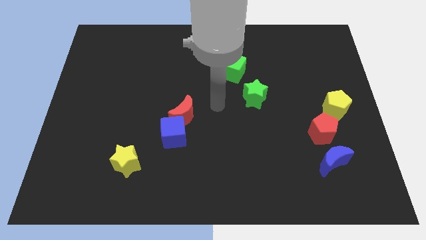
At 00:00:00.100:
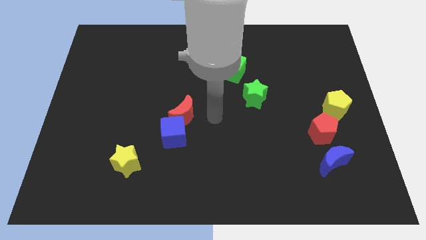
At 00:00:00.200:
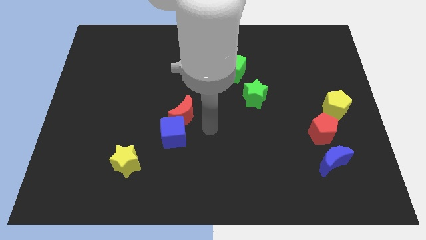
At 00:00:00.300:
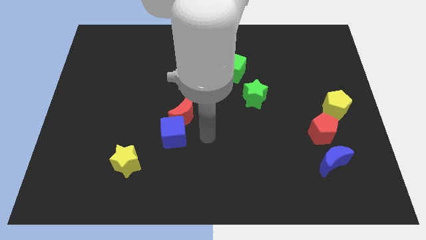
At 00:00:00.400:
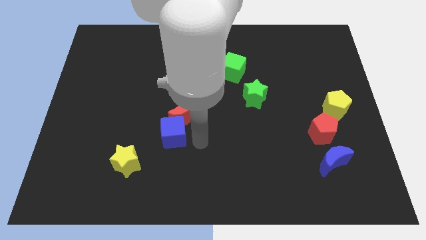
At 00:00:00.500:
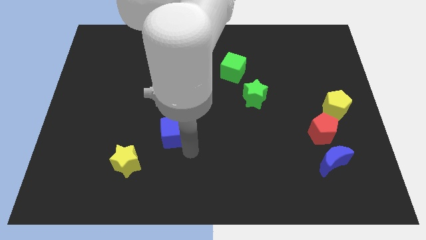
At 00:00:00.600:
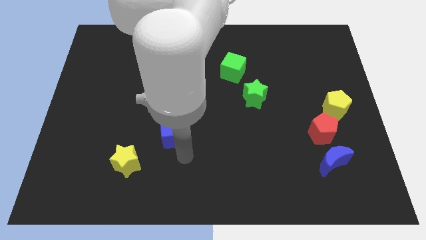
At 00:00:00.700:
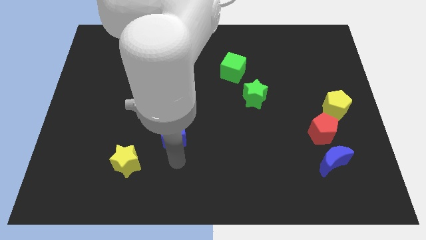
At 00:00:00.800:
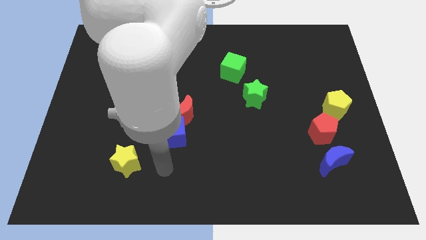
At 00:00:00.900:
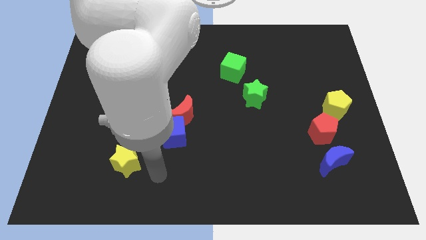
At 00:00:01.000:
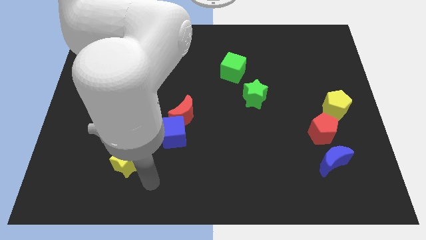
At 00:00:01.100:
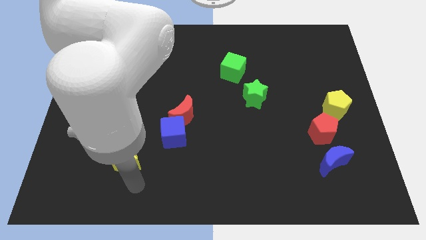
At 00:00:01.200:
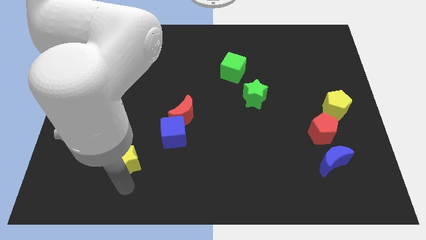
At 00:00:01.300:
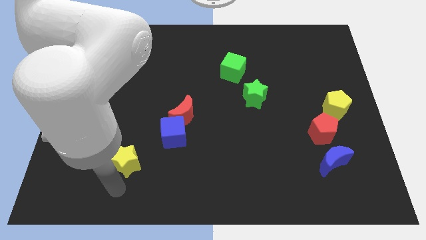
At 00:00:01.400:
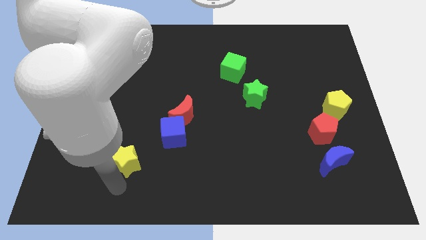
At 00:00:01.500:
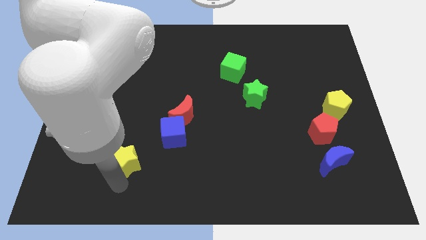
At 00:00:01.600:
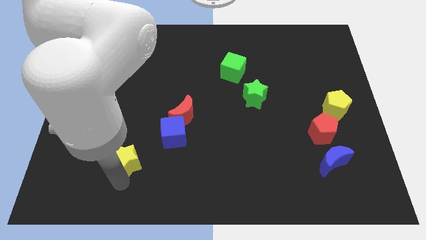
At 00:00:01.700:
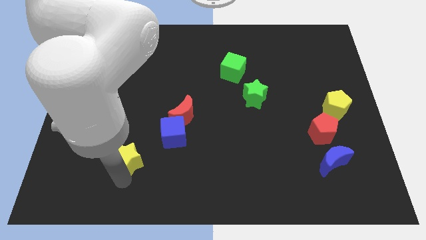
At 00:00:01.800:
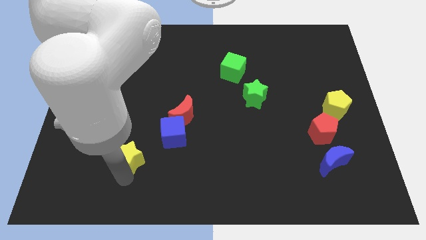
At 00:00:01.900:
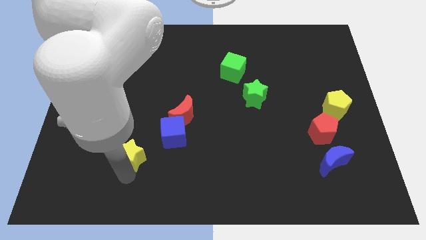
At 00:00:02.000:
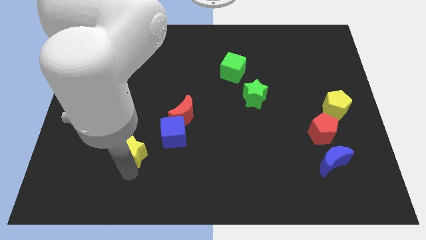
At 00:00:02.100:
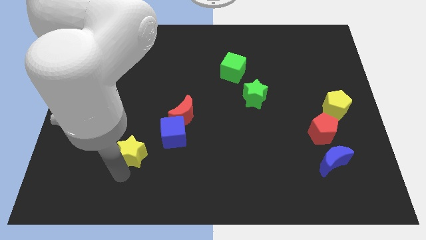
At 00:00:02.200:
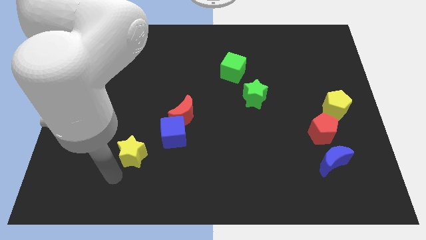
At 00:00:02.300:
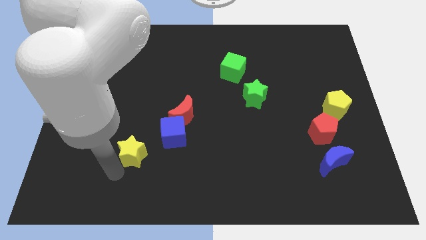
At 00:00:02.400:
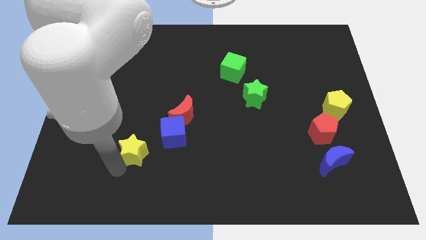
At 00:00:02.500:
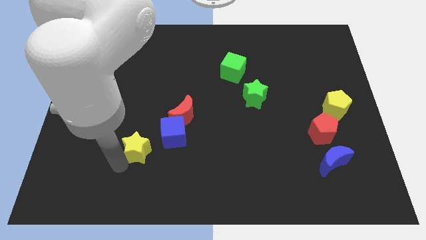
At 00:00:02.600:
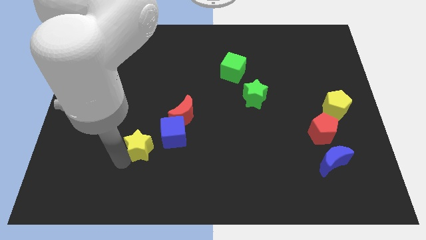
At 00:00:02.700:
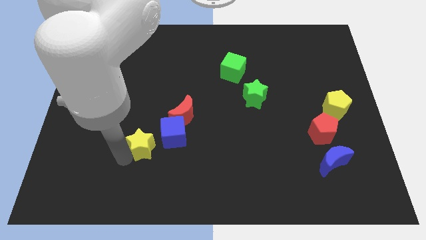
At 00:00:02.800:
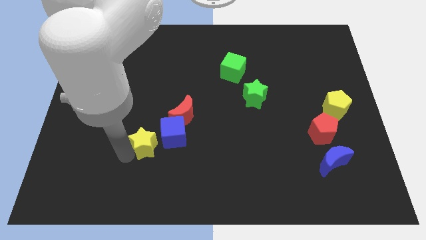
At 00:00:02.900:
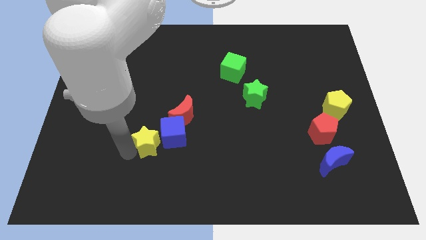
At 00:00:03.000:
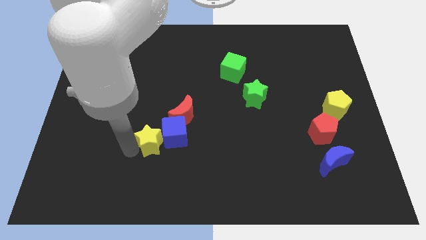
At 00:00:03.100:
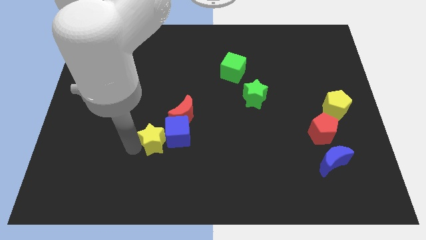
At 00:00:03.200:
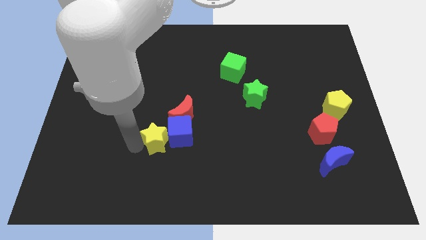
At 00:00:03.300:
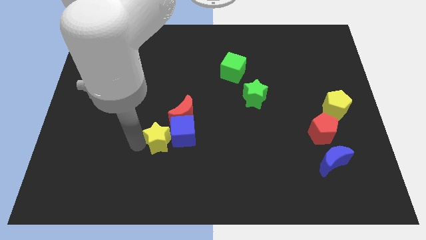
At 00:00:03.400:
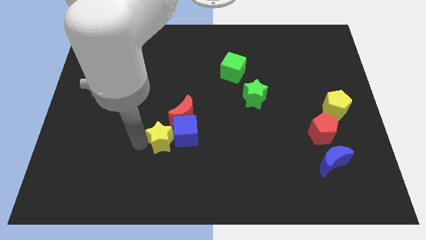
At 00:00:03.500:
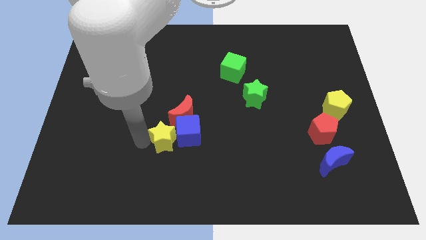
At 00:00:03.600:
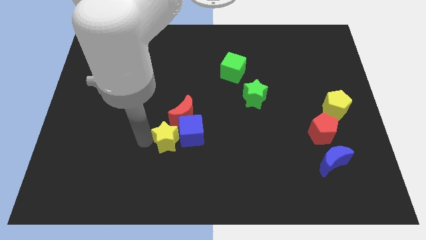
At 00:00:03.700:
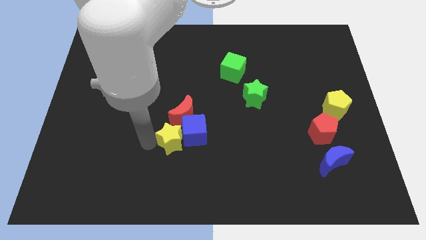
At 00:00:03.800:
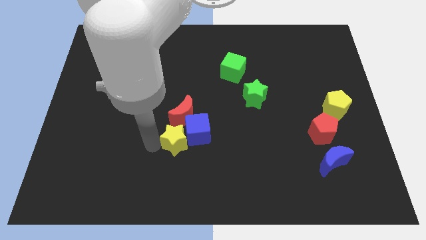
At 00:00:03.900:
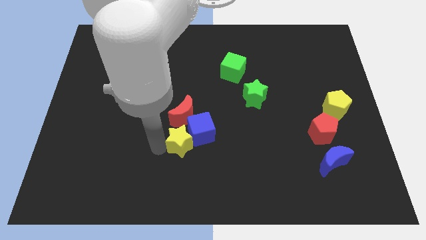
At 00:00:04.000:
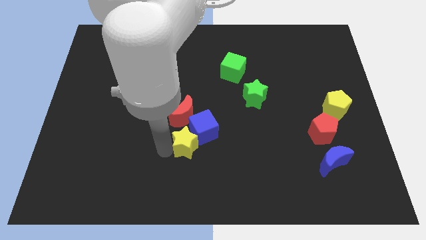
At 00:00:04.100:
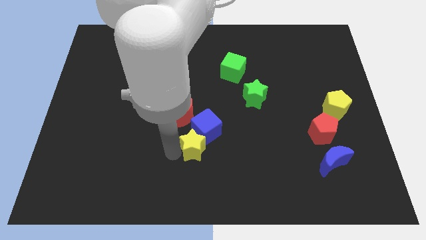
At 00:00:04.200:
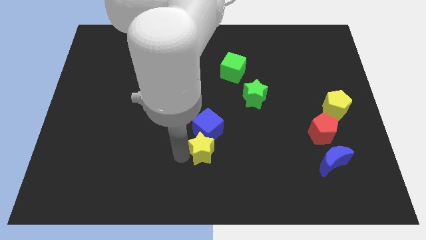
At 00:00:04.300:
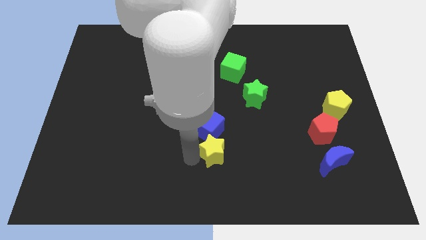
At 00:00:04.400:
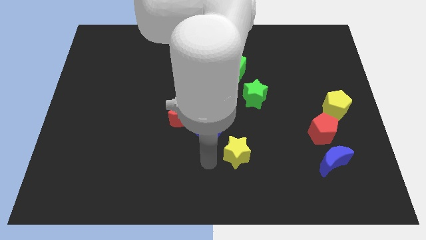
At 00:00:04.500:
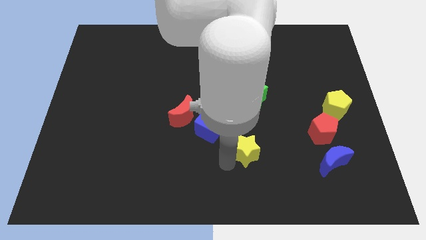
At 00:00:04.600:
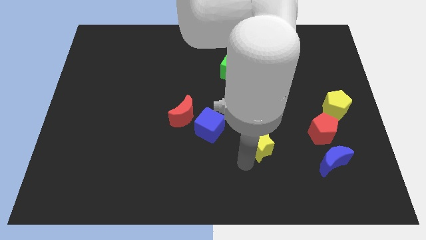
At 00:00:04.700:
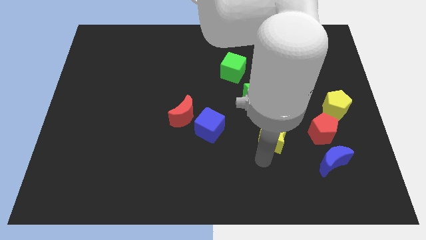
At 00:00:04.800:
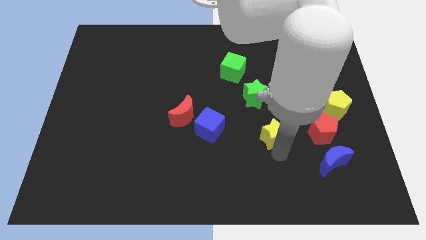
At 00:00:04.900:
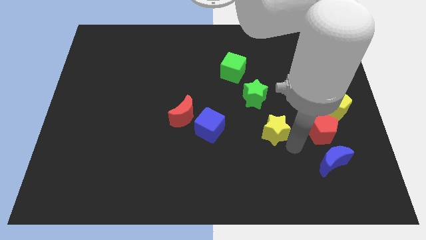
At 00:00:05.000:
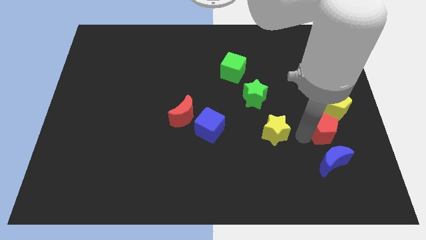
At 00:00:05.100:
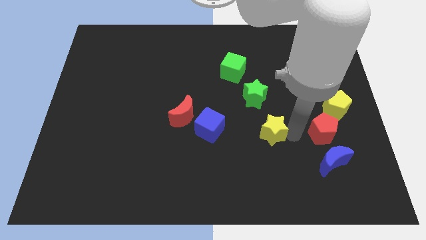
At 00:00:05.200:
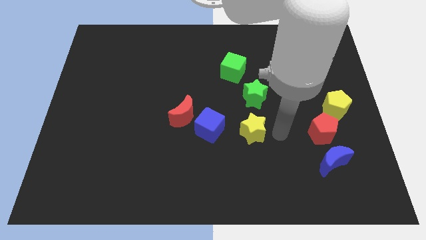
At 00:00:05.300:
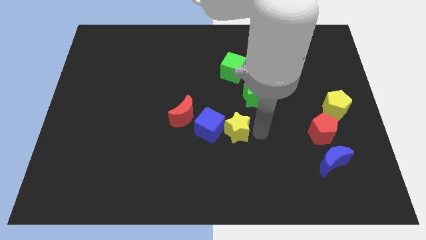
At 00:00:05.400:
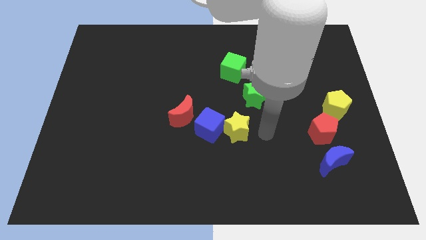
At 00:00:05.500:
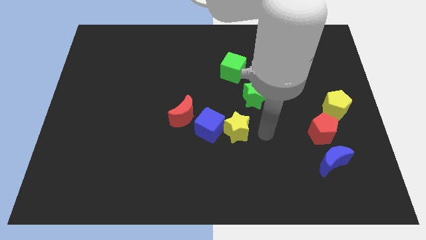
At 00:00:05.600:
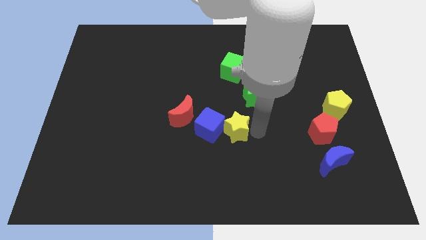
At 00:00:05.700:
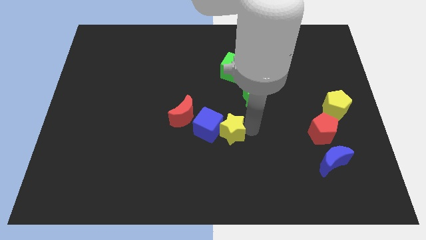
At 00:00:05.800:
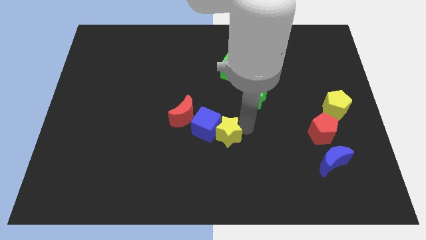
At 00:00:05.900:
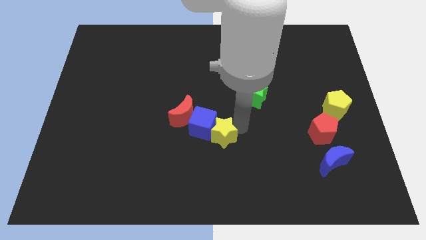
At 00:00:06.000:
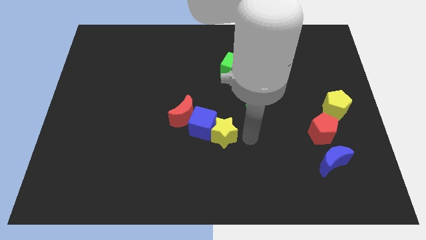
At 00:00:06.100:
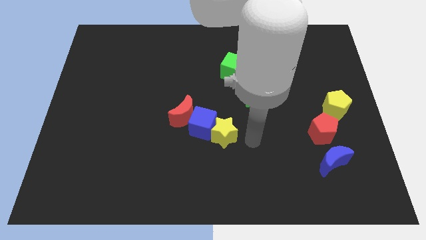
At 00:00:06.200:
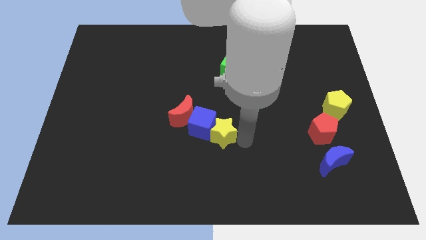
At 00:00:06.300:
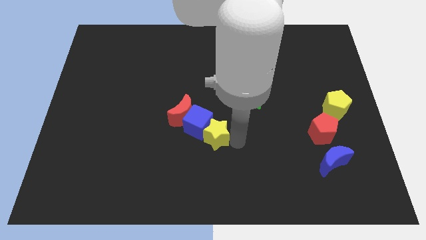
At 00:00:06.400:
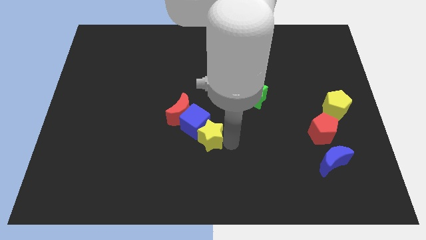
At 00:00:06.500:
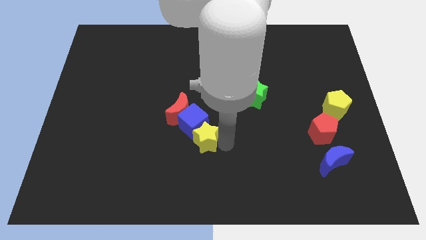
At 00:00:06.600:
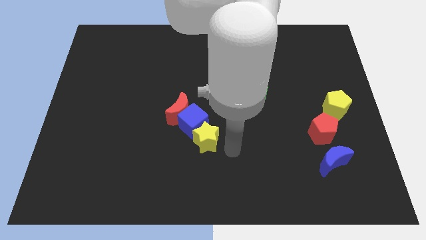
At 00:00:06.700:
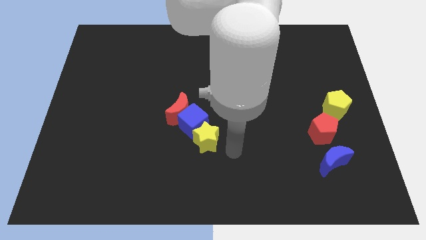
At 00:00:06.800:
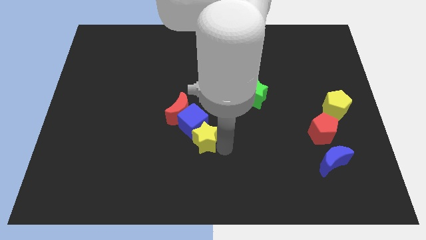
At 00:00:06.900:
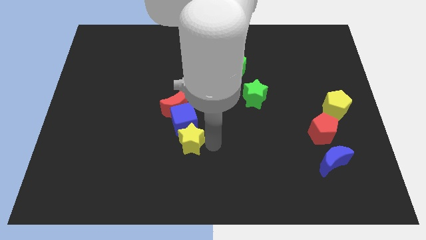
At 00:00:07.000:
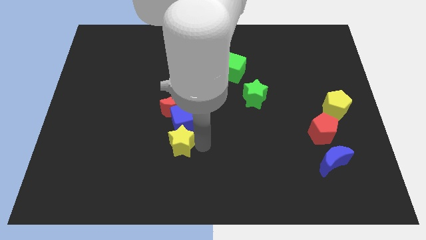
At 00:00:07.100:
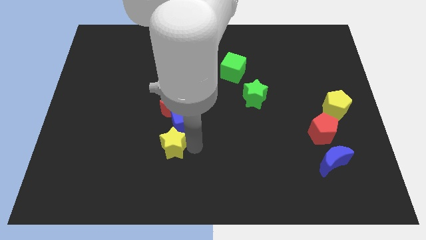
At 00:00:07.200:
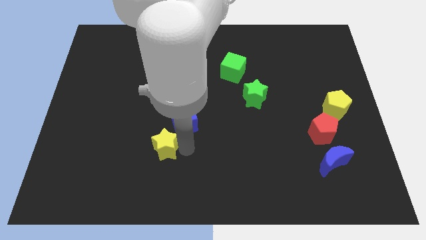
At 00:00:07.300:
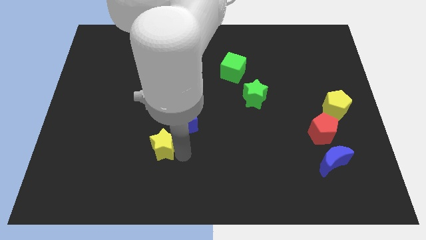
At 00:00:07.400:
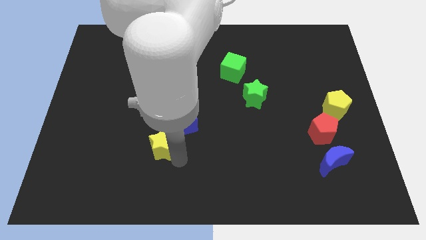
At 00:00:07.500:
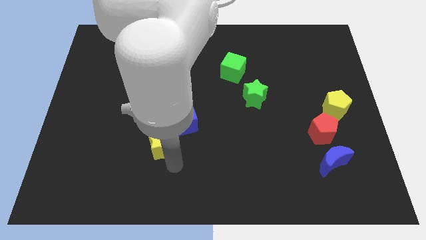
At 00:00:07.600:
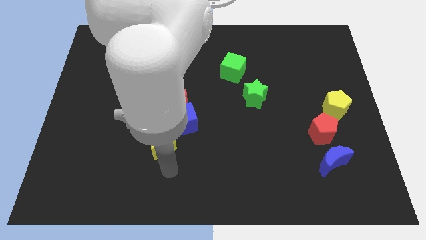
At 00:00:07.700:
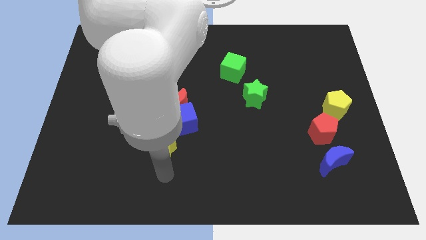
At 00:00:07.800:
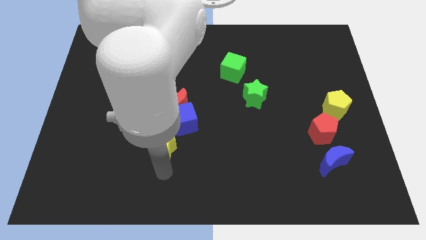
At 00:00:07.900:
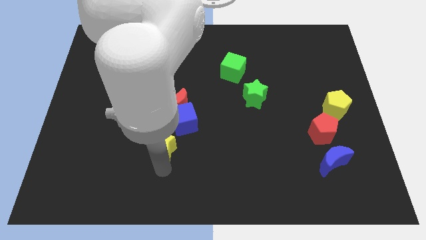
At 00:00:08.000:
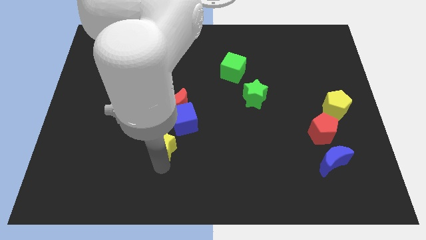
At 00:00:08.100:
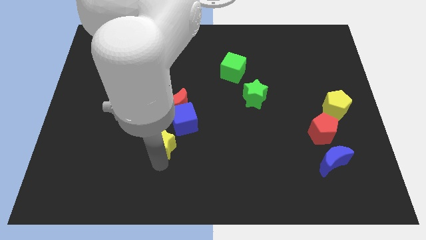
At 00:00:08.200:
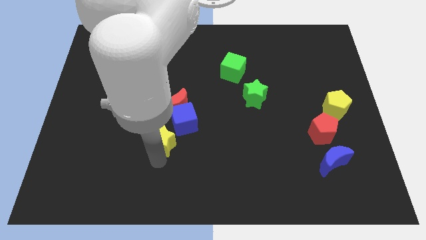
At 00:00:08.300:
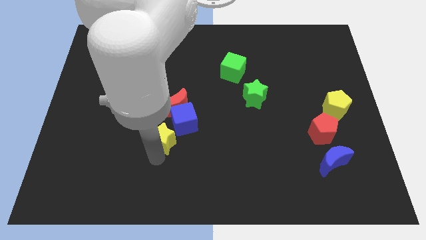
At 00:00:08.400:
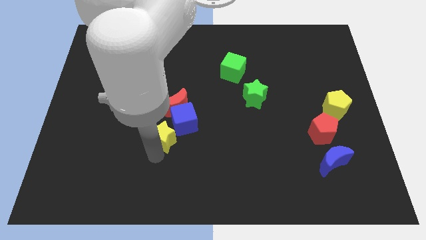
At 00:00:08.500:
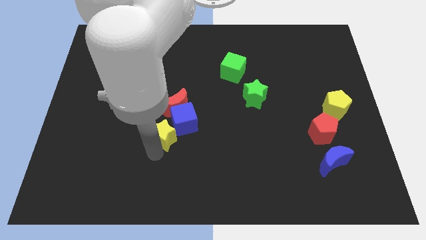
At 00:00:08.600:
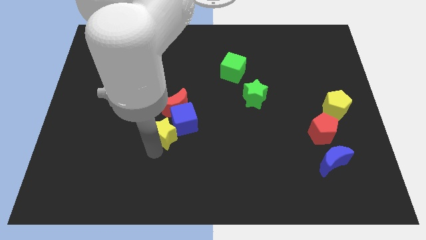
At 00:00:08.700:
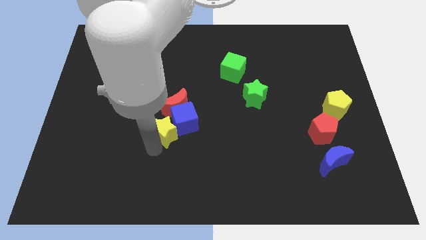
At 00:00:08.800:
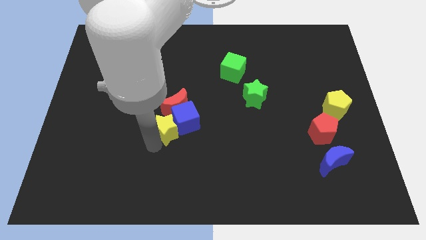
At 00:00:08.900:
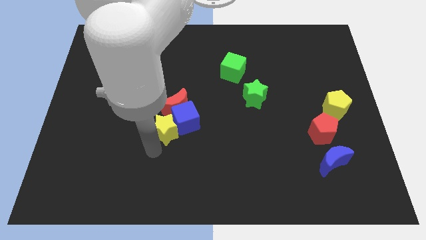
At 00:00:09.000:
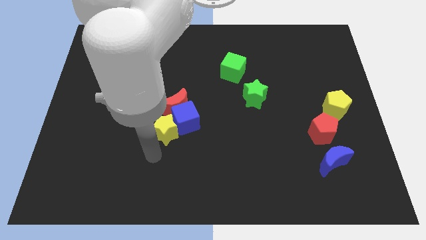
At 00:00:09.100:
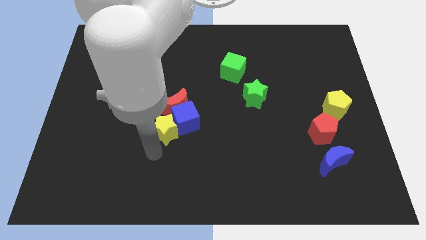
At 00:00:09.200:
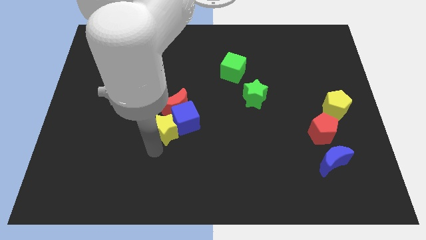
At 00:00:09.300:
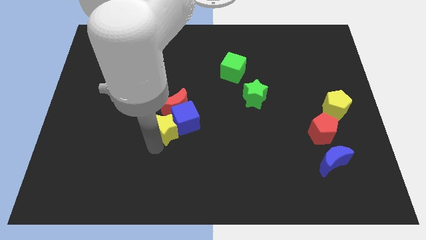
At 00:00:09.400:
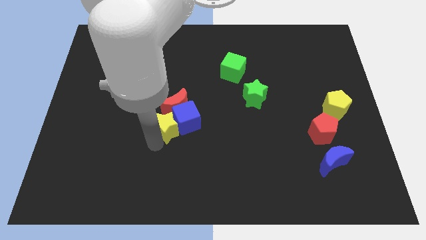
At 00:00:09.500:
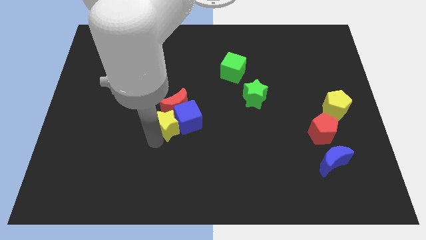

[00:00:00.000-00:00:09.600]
put the yellow star towards the red moon
